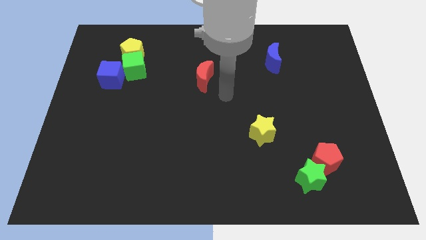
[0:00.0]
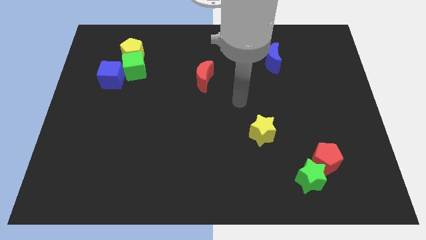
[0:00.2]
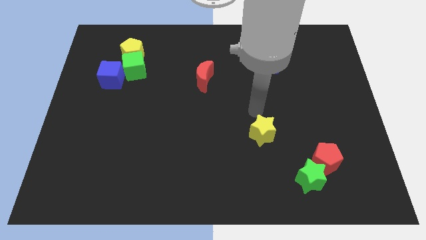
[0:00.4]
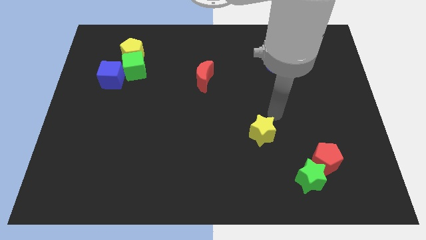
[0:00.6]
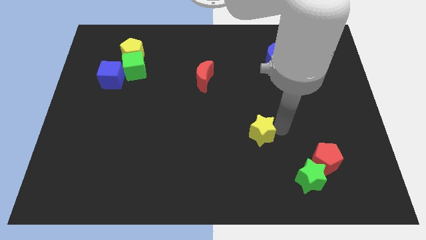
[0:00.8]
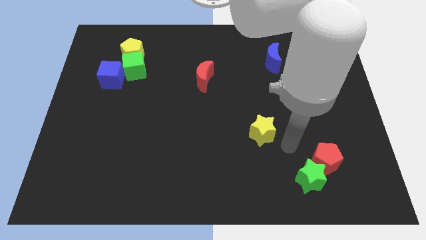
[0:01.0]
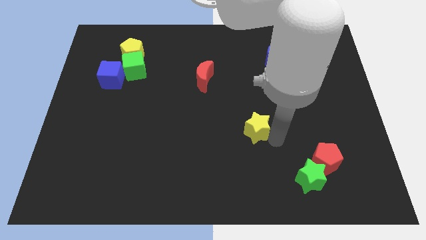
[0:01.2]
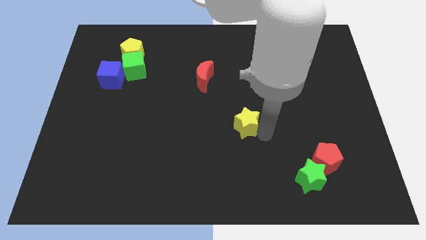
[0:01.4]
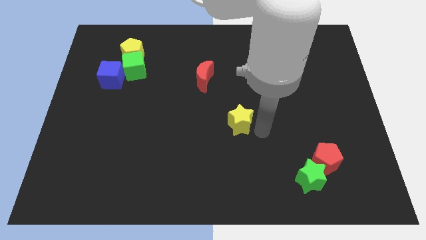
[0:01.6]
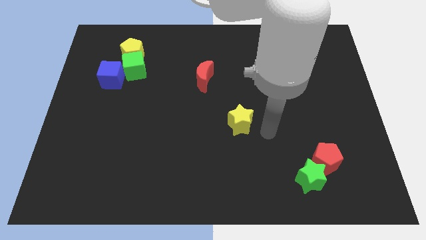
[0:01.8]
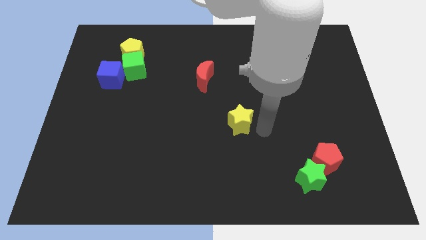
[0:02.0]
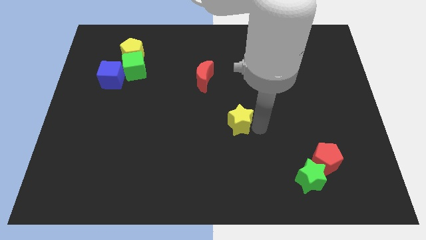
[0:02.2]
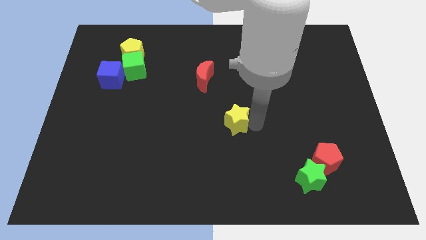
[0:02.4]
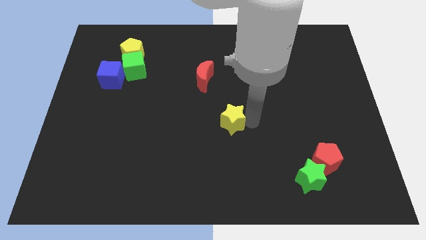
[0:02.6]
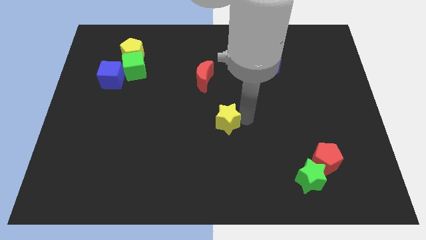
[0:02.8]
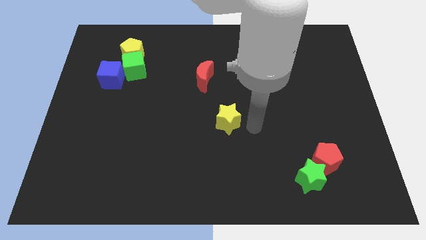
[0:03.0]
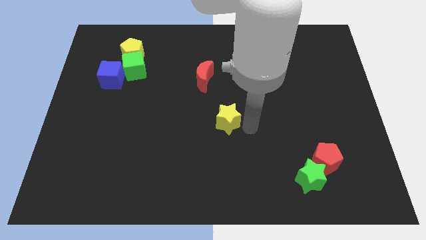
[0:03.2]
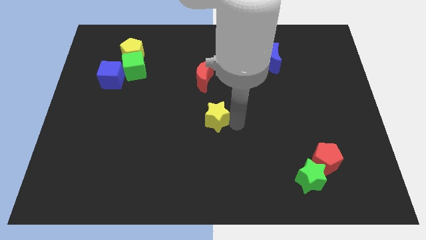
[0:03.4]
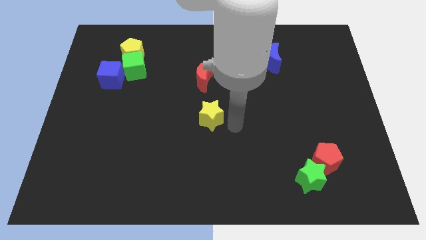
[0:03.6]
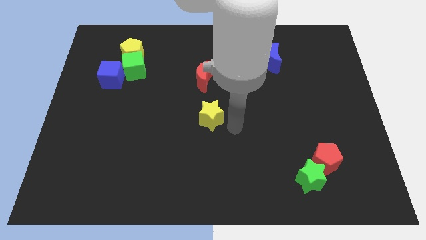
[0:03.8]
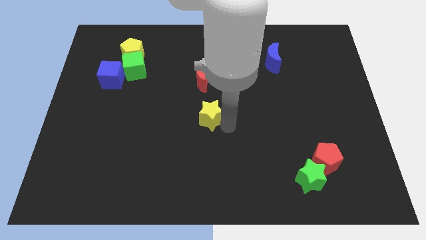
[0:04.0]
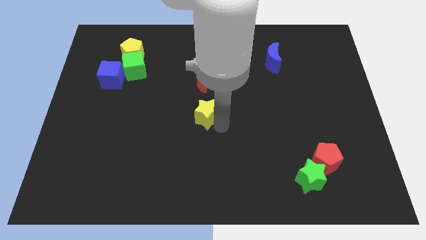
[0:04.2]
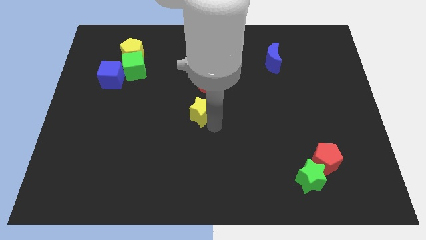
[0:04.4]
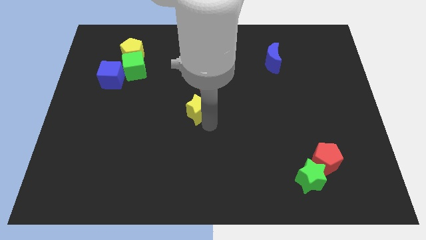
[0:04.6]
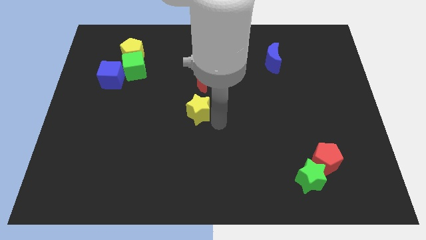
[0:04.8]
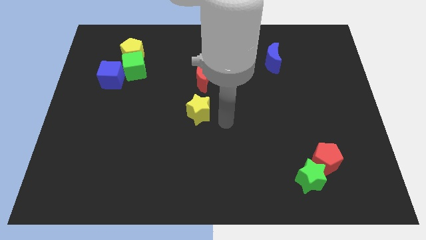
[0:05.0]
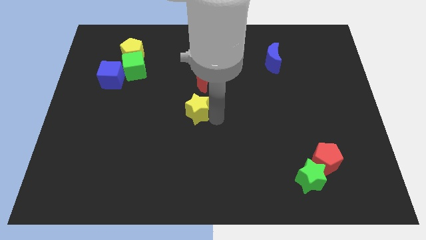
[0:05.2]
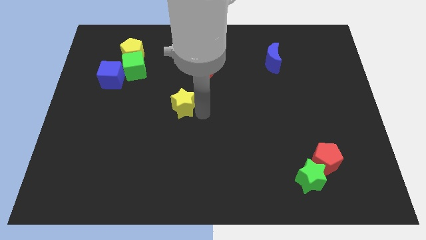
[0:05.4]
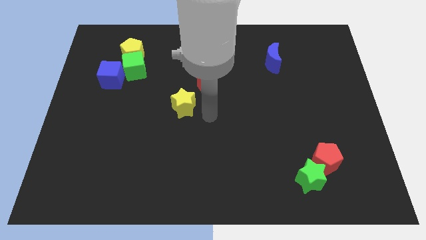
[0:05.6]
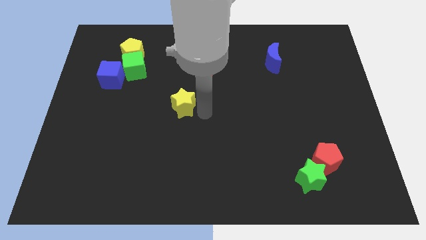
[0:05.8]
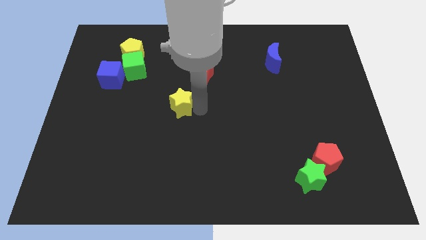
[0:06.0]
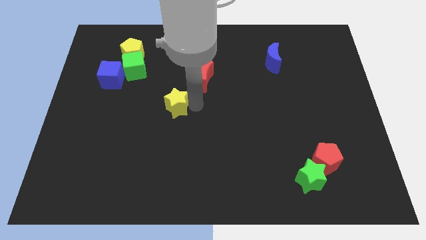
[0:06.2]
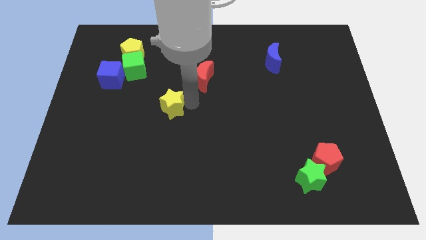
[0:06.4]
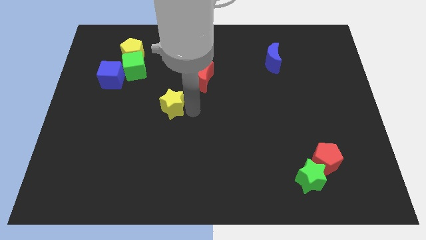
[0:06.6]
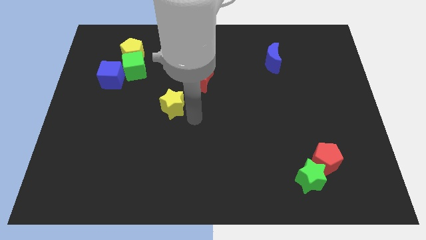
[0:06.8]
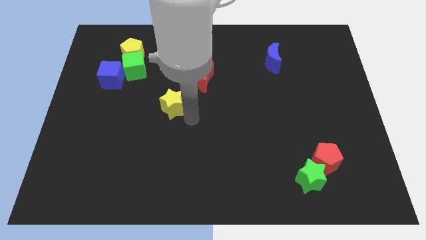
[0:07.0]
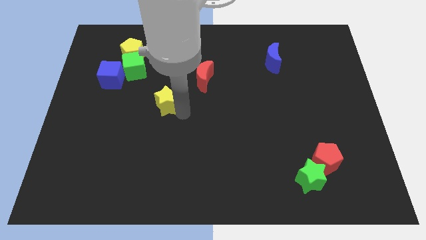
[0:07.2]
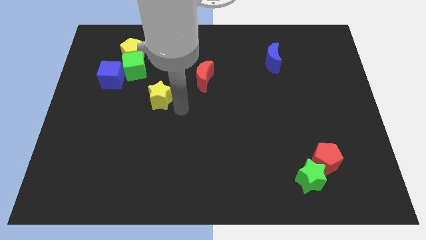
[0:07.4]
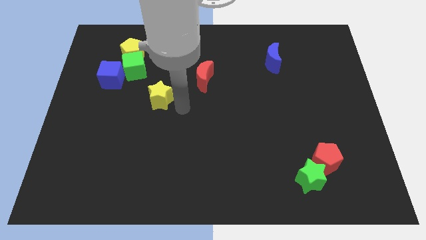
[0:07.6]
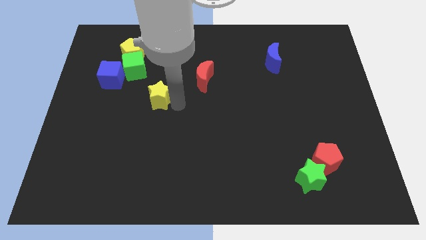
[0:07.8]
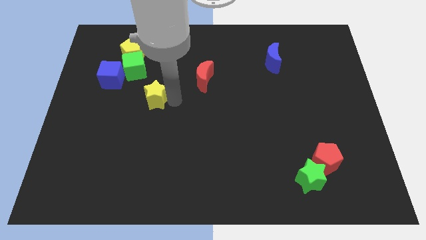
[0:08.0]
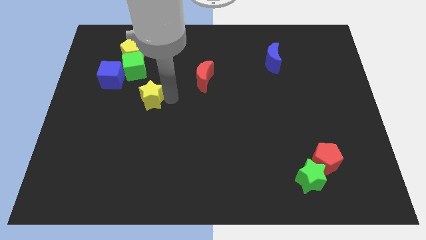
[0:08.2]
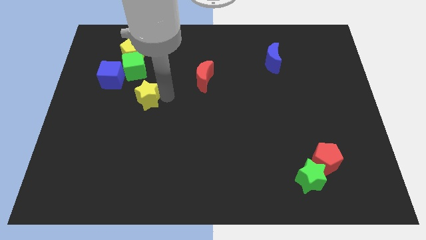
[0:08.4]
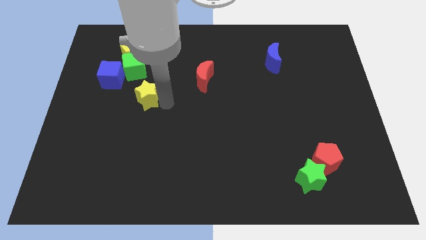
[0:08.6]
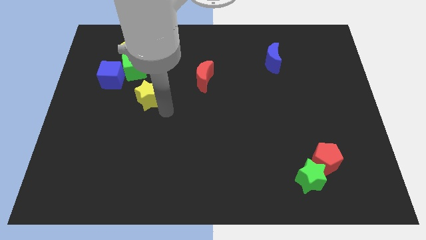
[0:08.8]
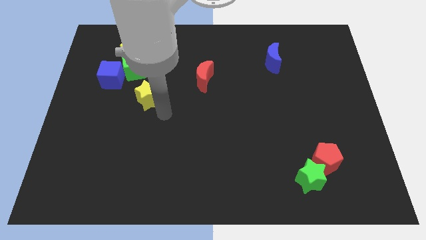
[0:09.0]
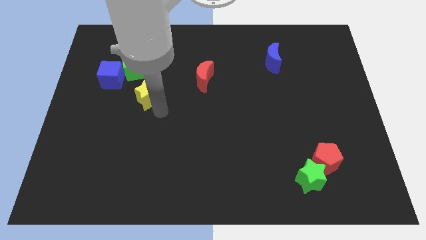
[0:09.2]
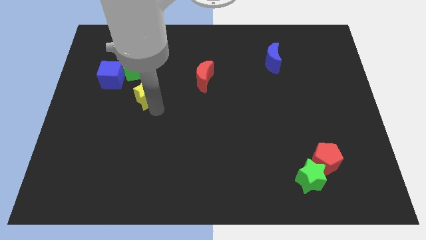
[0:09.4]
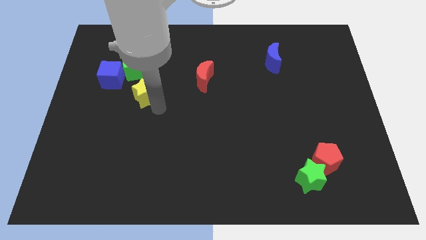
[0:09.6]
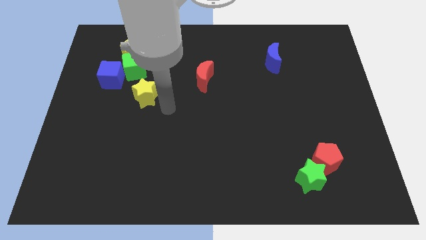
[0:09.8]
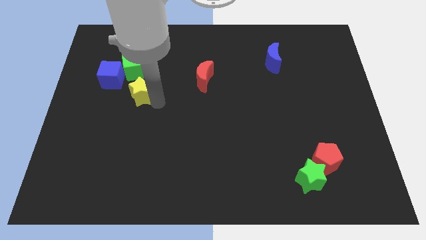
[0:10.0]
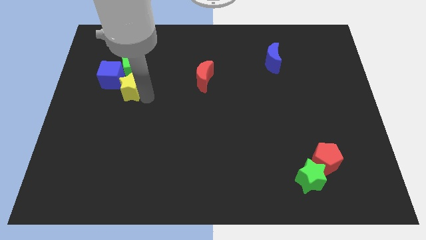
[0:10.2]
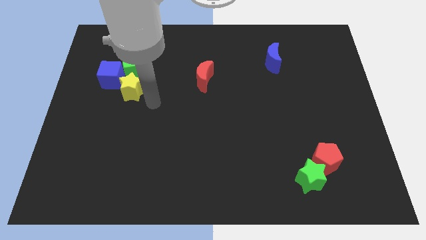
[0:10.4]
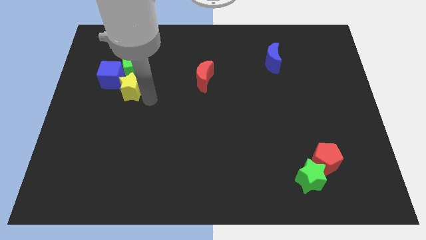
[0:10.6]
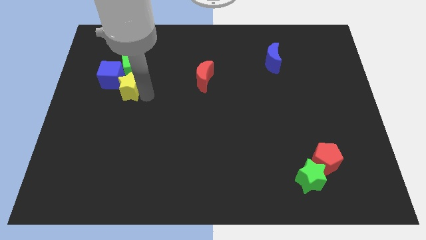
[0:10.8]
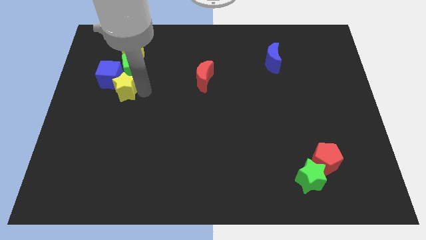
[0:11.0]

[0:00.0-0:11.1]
slide the yellow star close to the blue cube

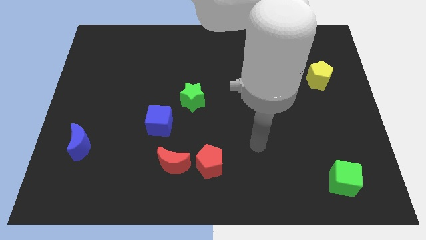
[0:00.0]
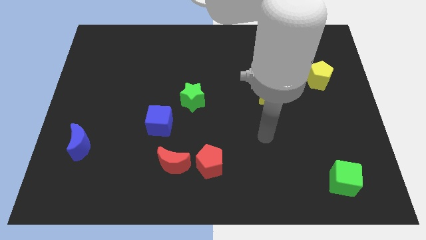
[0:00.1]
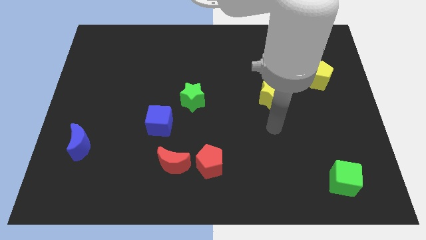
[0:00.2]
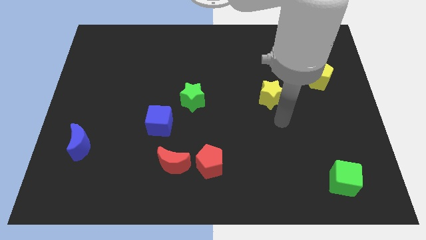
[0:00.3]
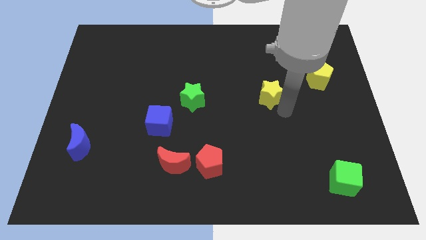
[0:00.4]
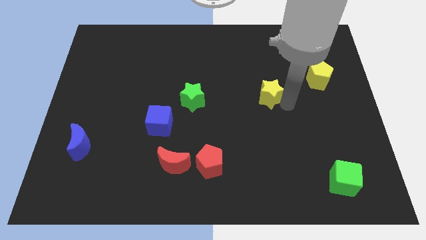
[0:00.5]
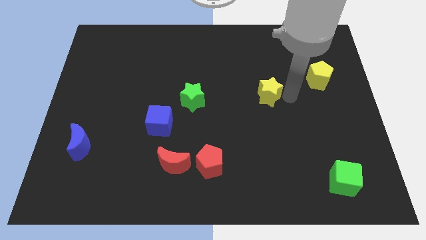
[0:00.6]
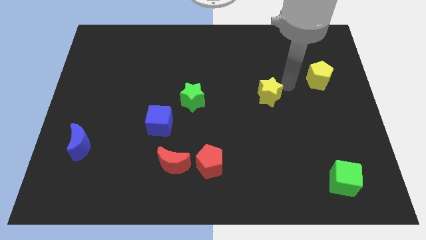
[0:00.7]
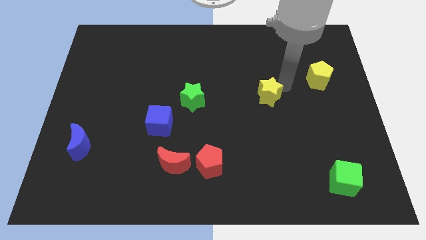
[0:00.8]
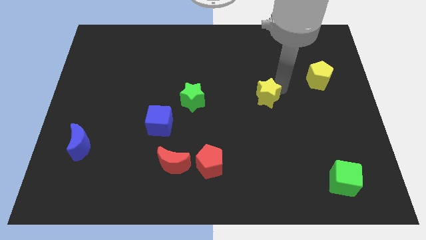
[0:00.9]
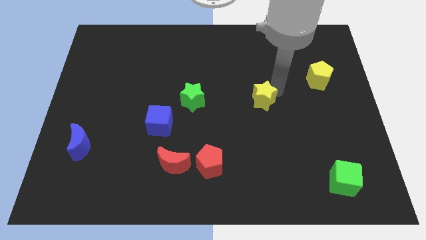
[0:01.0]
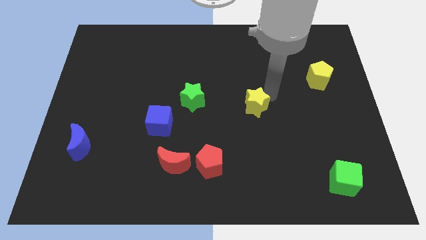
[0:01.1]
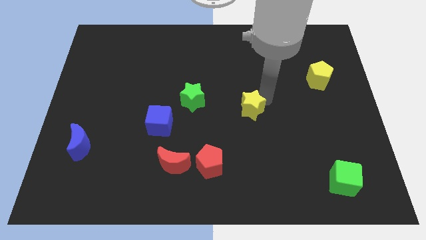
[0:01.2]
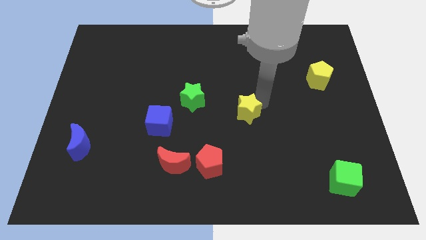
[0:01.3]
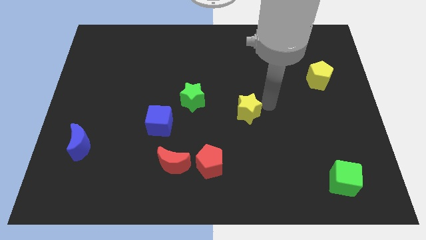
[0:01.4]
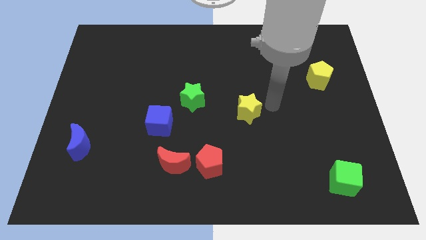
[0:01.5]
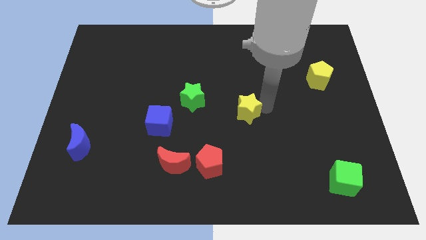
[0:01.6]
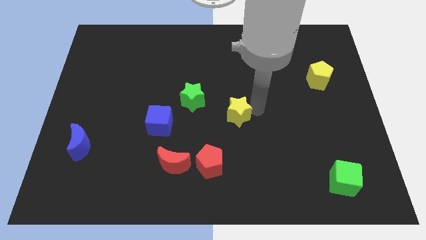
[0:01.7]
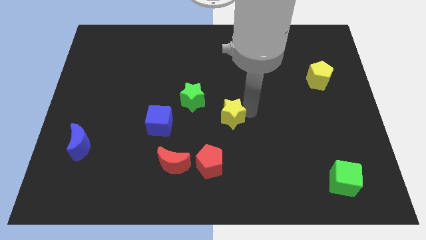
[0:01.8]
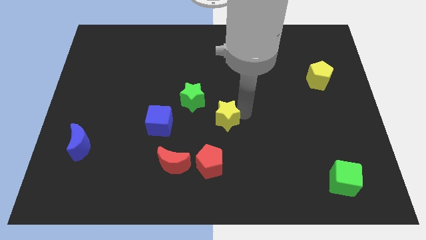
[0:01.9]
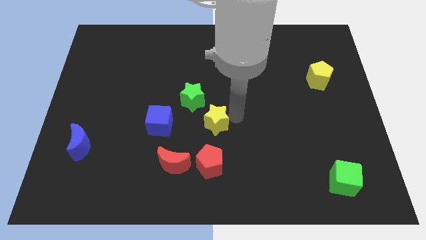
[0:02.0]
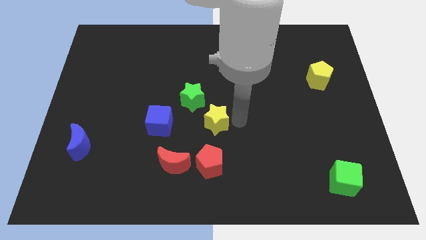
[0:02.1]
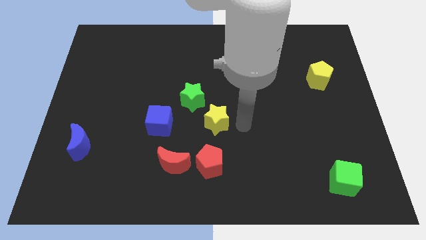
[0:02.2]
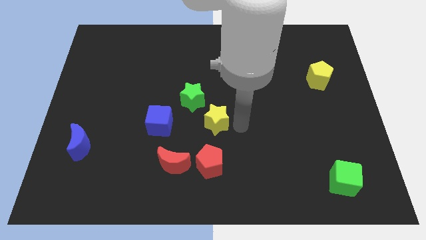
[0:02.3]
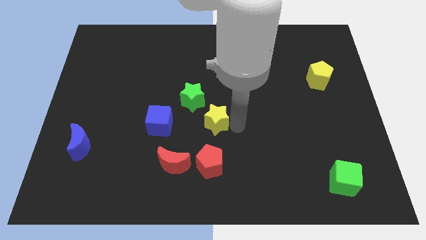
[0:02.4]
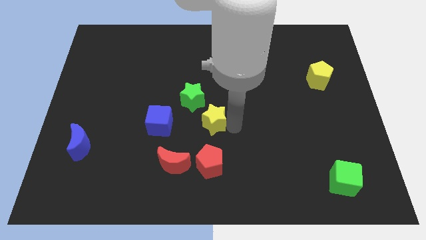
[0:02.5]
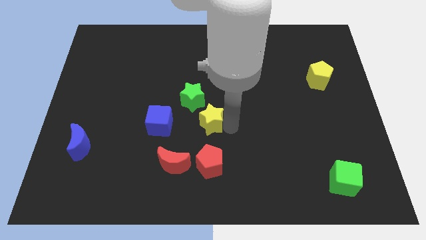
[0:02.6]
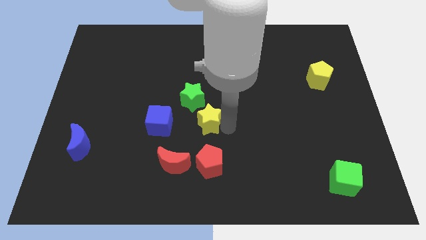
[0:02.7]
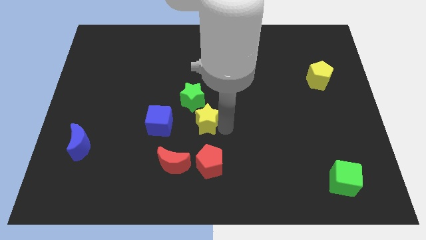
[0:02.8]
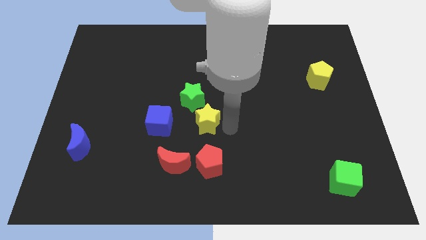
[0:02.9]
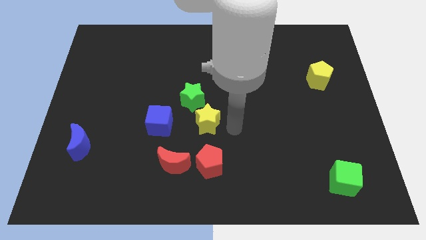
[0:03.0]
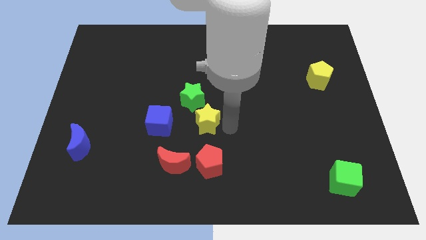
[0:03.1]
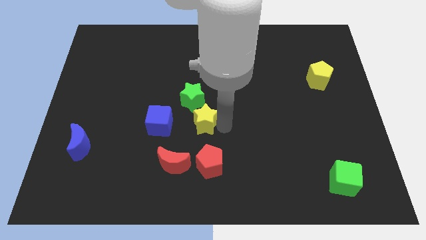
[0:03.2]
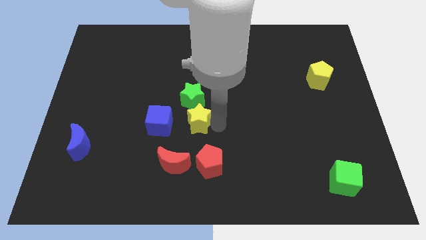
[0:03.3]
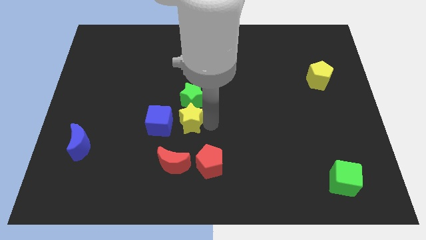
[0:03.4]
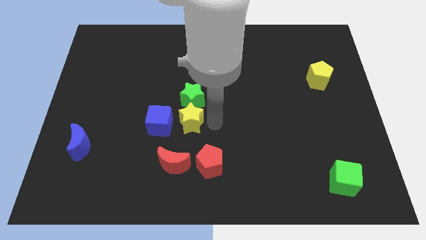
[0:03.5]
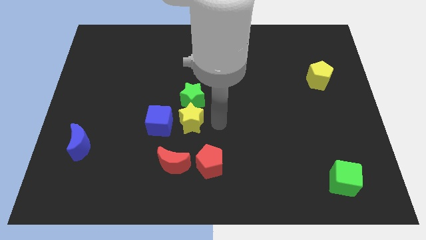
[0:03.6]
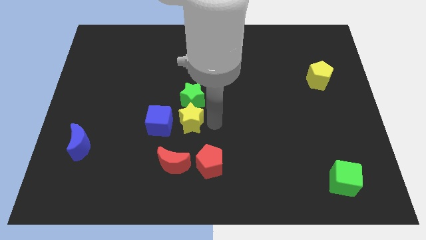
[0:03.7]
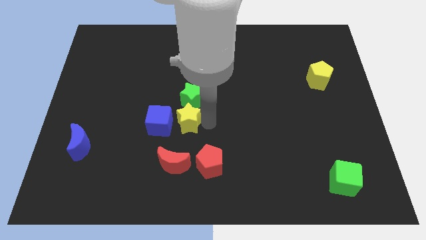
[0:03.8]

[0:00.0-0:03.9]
put the yellow star next to the blue cube
